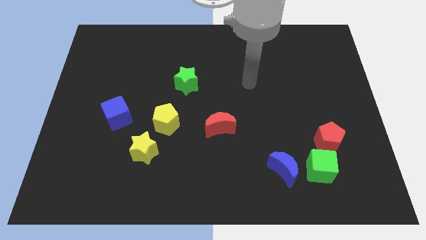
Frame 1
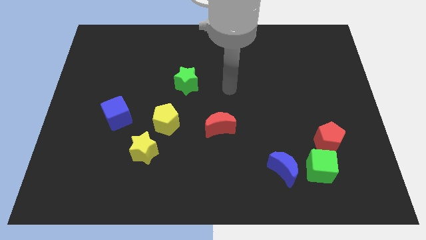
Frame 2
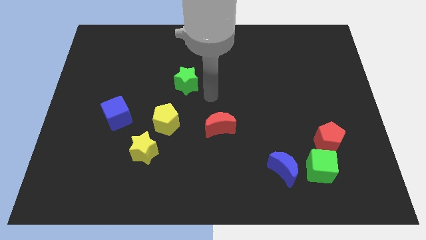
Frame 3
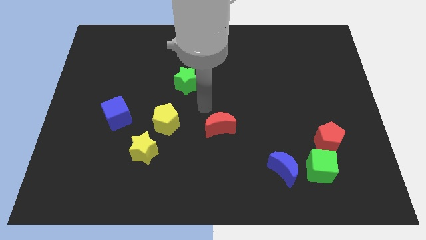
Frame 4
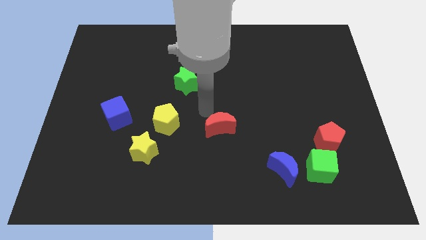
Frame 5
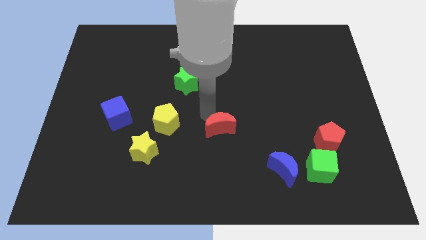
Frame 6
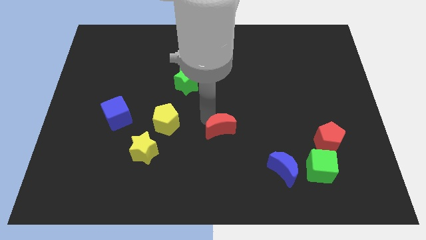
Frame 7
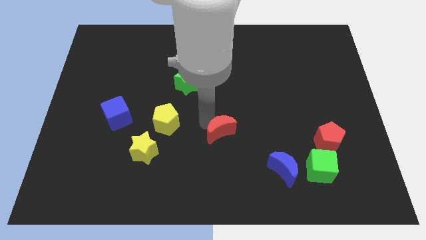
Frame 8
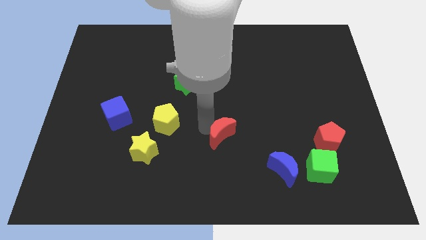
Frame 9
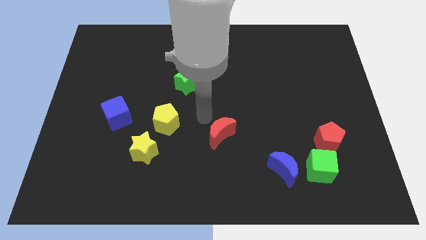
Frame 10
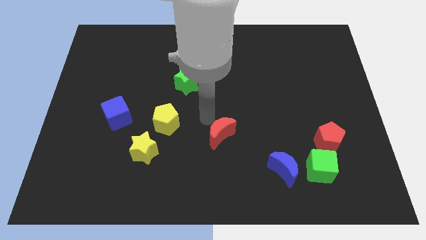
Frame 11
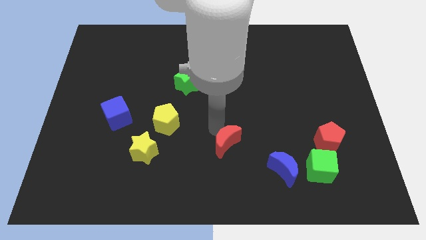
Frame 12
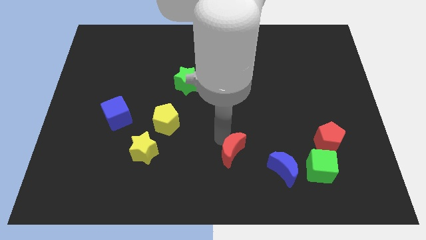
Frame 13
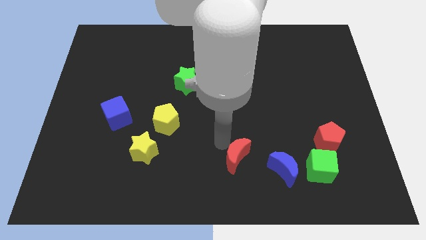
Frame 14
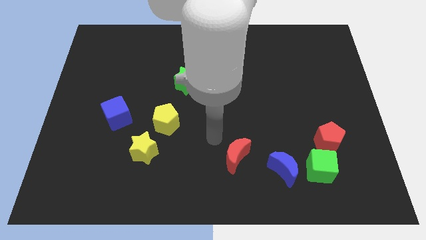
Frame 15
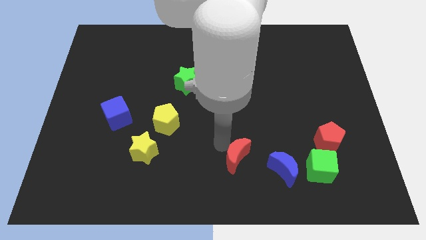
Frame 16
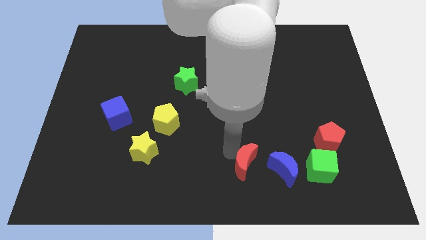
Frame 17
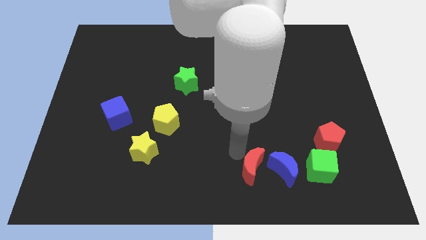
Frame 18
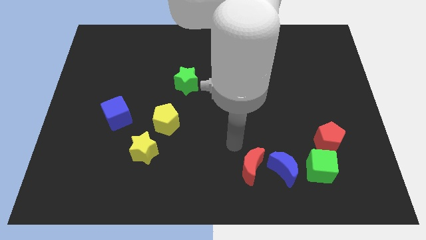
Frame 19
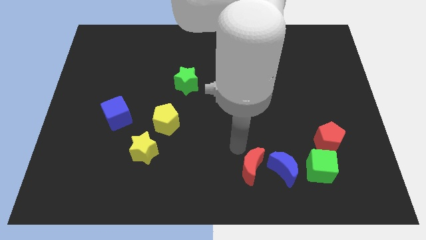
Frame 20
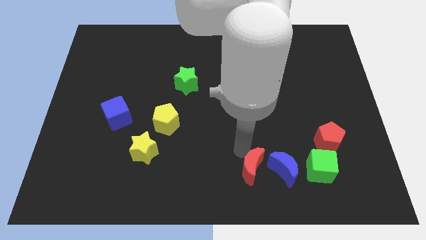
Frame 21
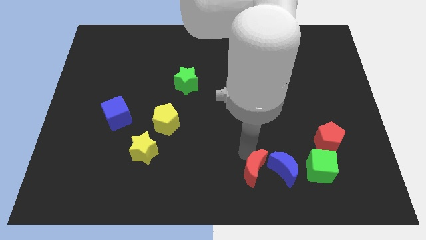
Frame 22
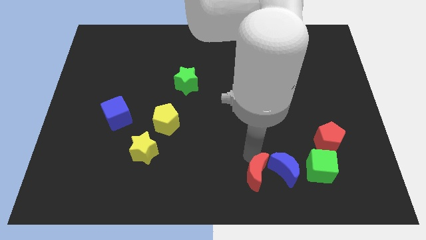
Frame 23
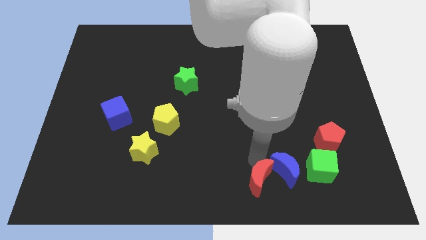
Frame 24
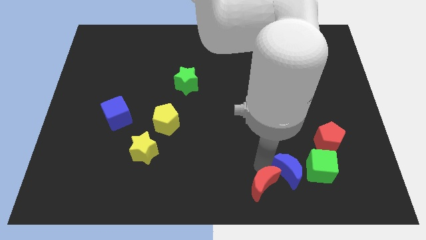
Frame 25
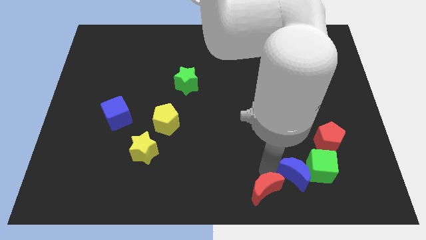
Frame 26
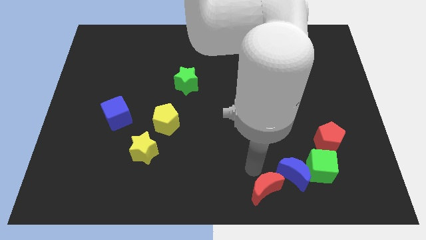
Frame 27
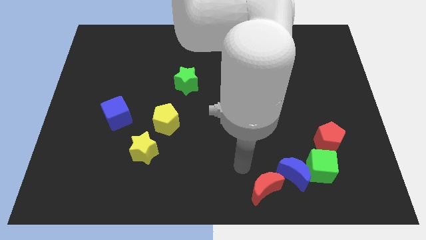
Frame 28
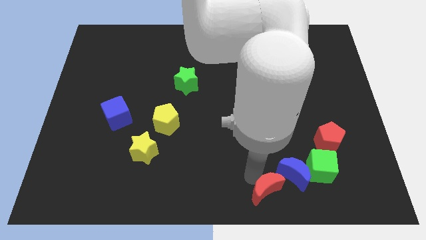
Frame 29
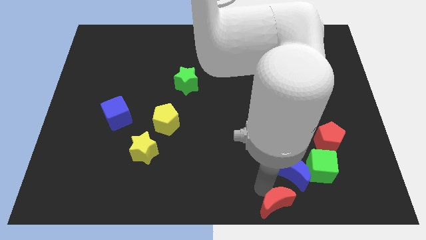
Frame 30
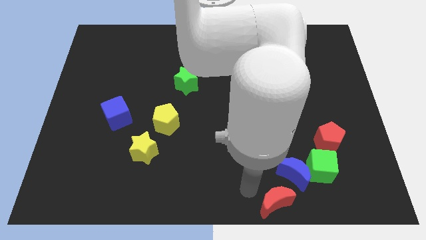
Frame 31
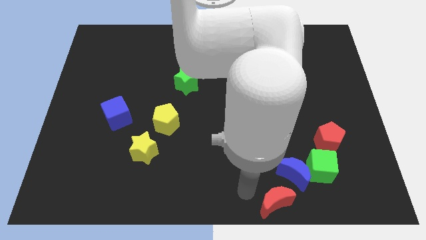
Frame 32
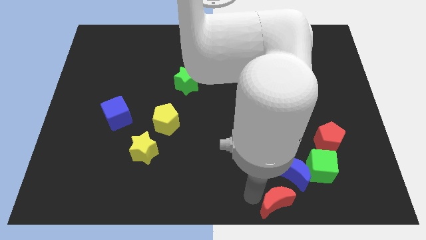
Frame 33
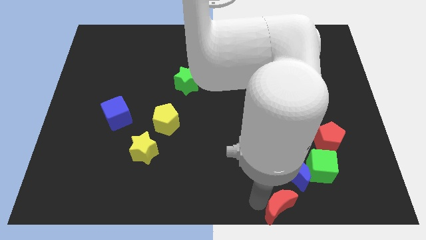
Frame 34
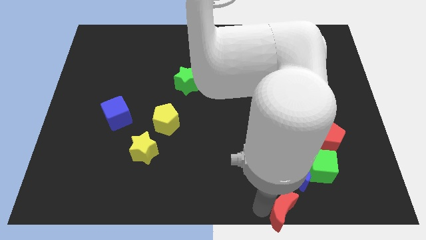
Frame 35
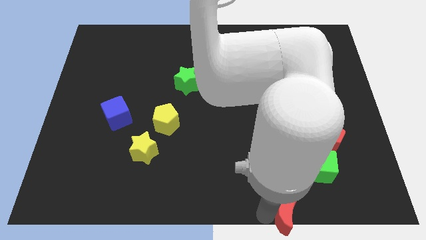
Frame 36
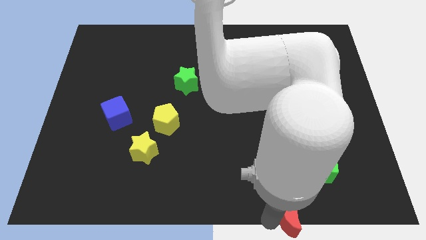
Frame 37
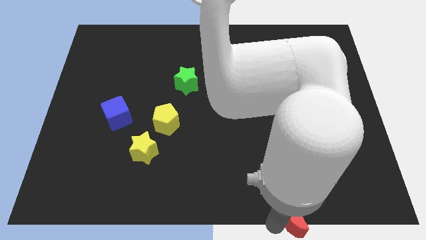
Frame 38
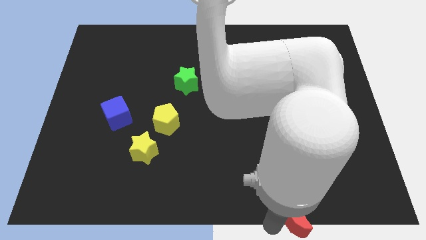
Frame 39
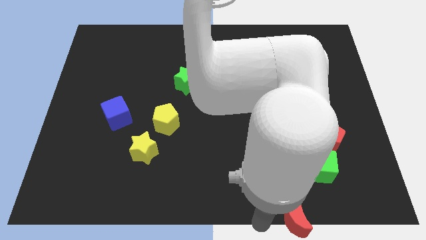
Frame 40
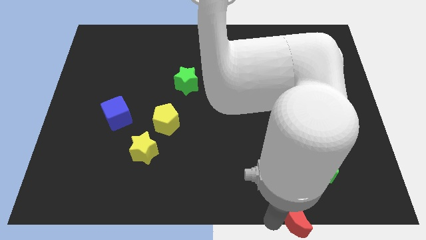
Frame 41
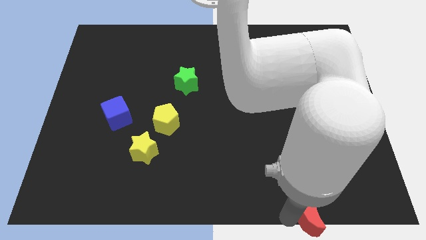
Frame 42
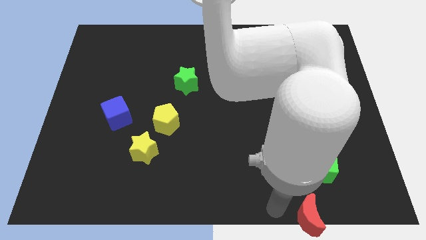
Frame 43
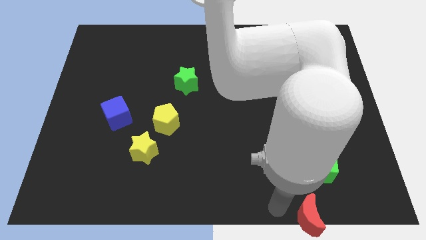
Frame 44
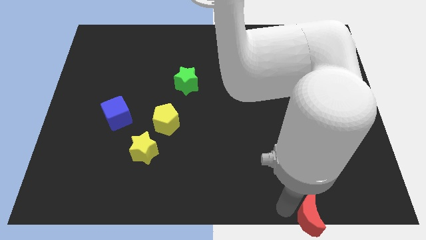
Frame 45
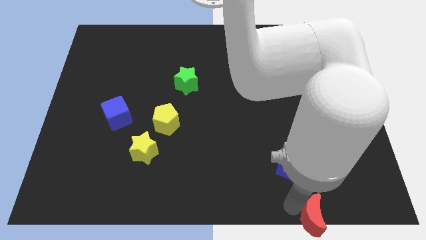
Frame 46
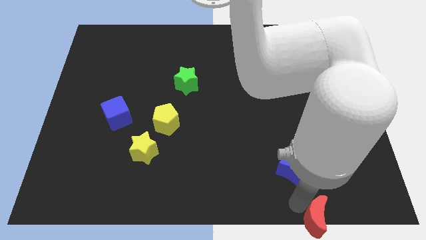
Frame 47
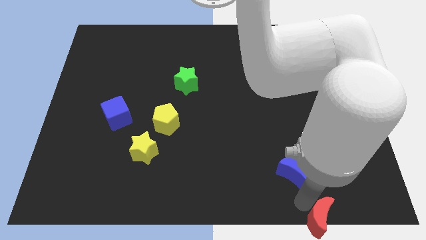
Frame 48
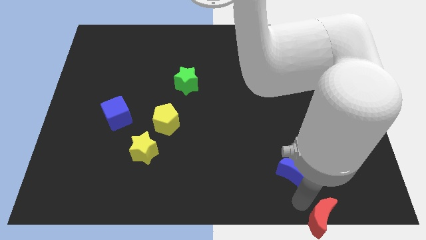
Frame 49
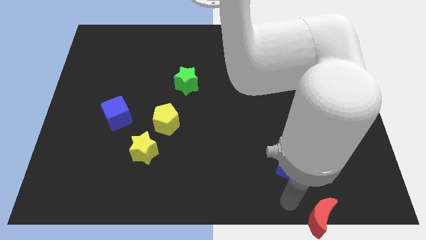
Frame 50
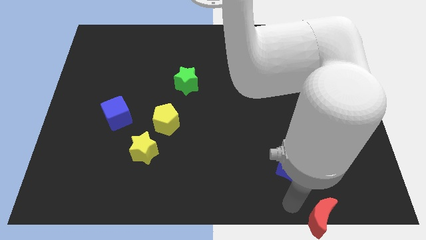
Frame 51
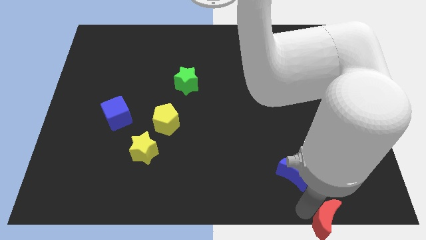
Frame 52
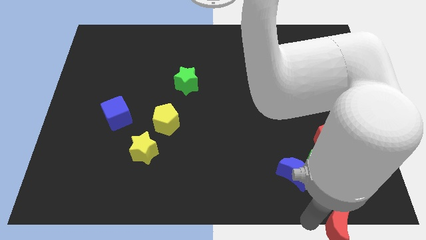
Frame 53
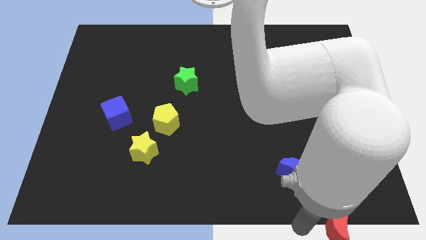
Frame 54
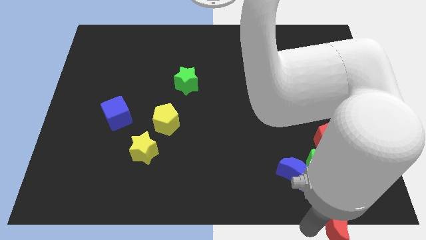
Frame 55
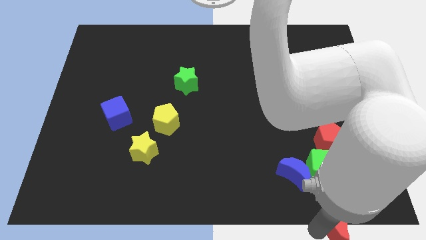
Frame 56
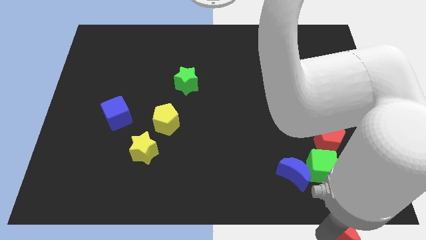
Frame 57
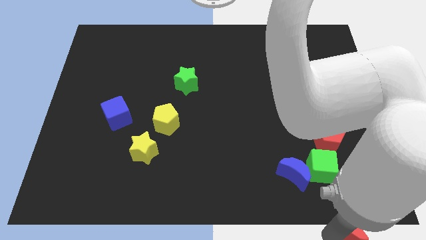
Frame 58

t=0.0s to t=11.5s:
put the red moon to the bottom right
